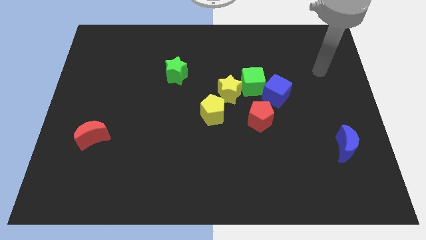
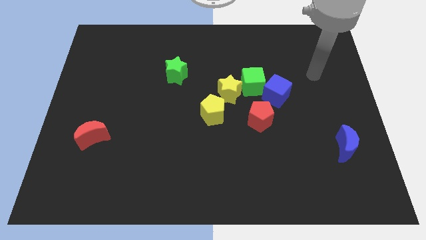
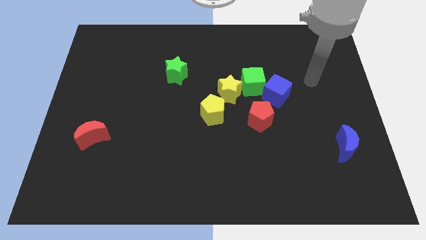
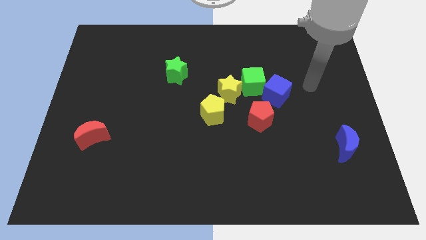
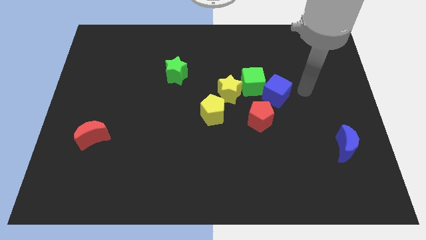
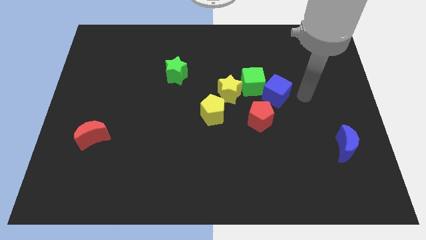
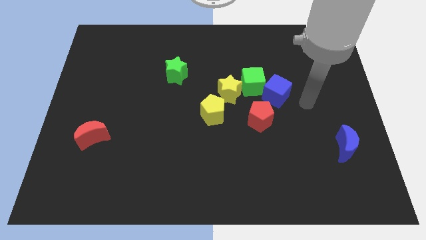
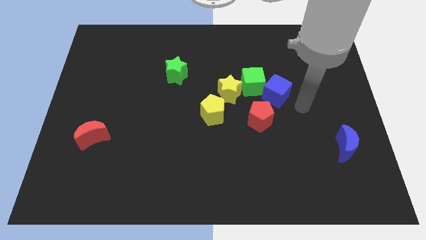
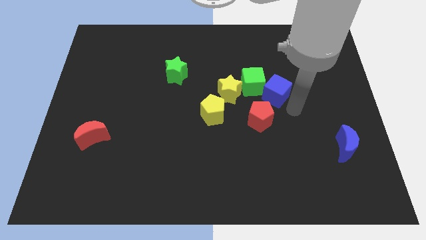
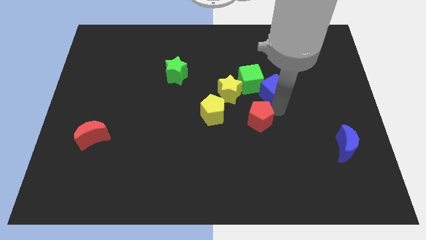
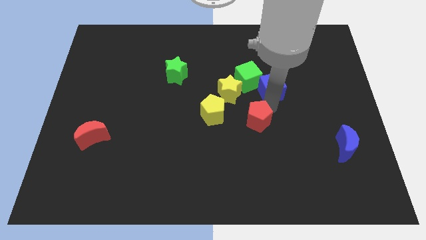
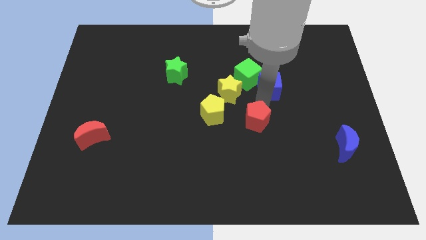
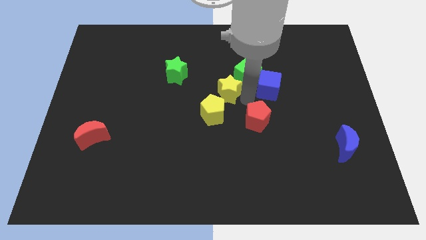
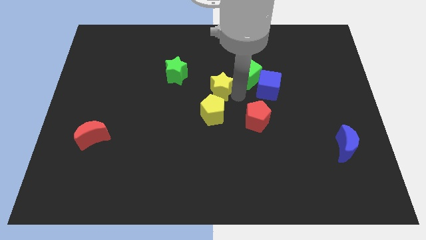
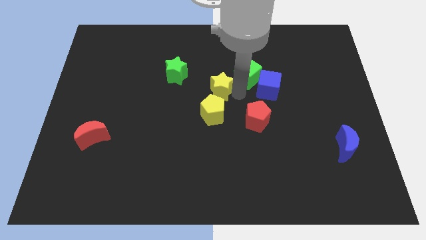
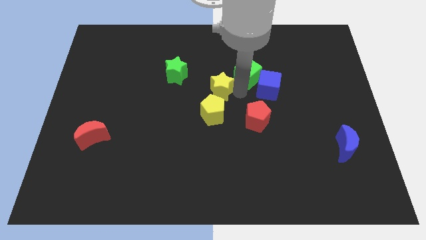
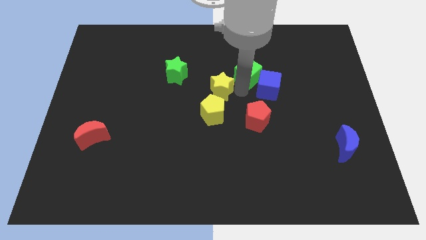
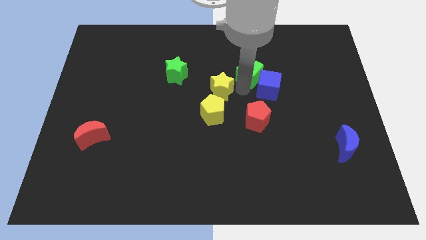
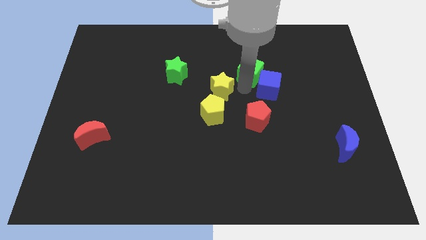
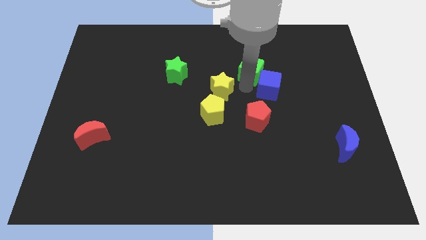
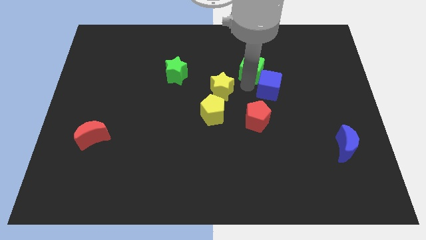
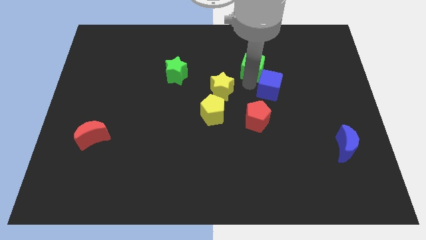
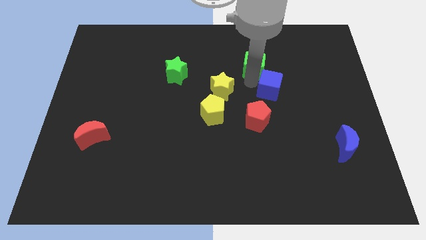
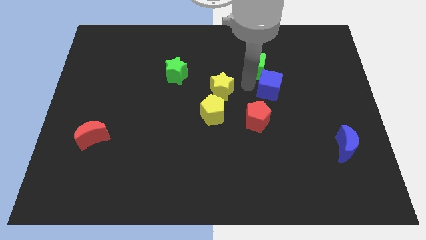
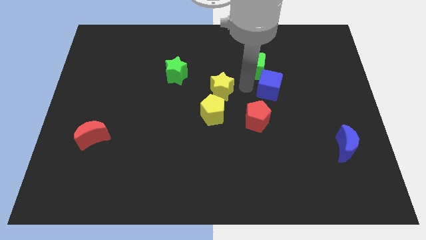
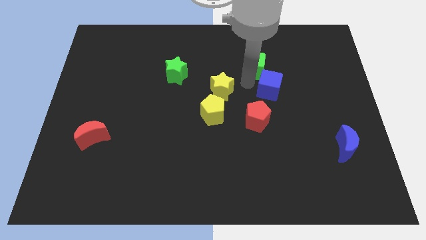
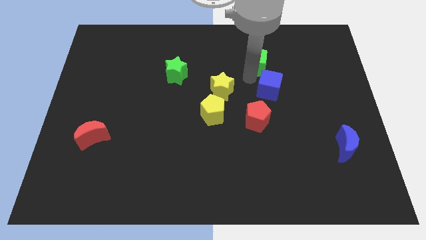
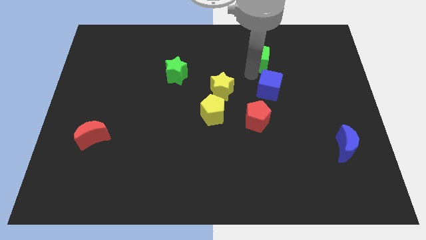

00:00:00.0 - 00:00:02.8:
separate the green cube from the yellow star and blue cube

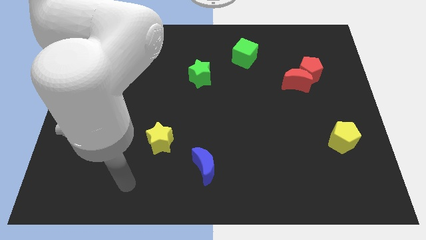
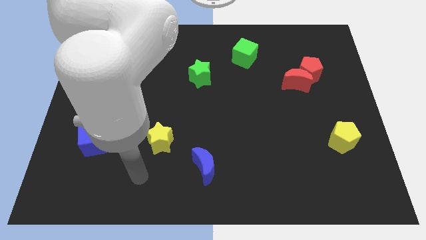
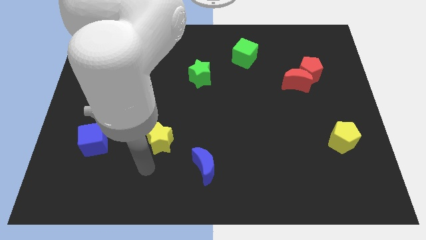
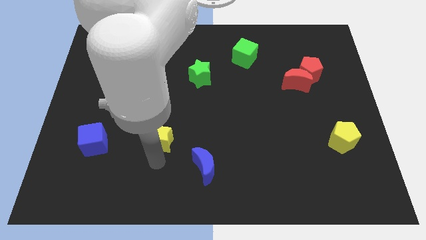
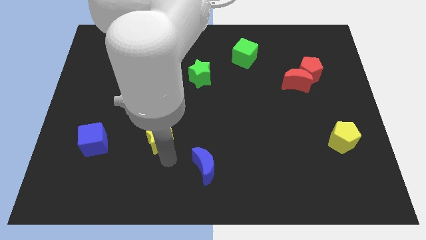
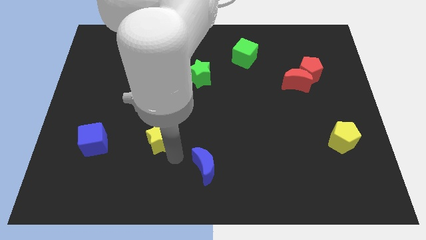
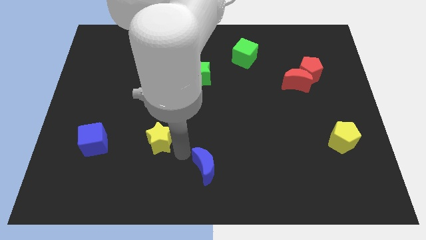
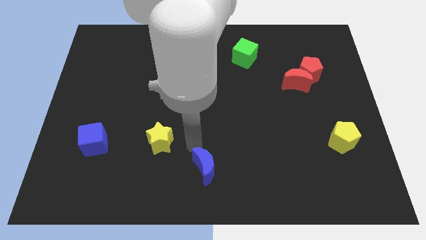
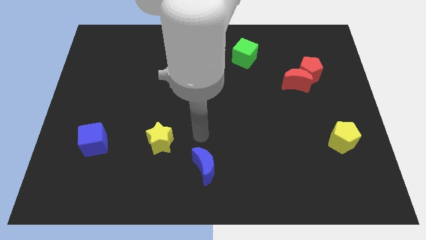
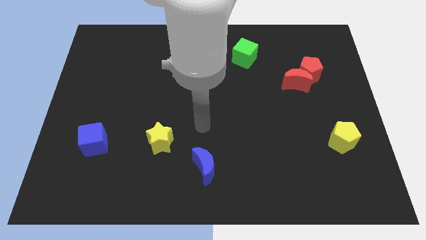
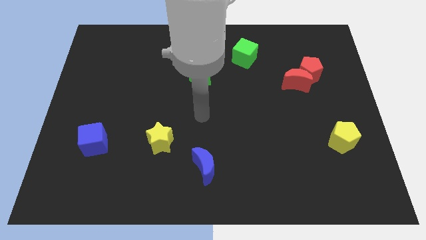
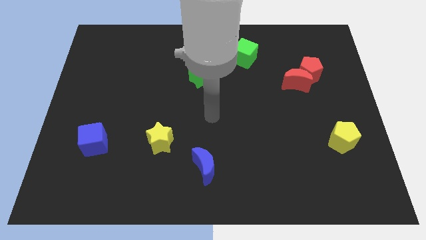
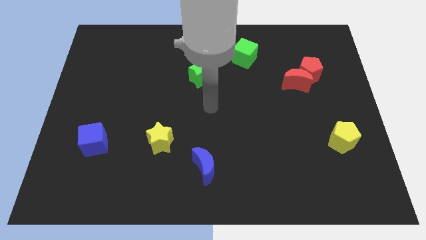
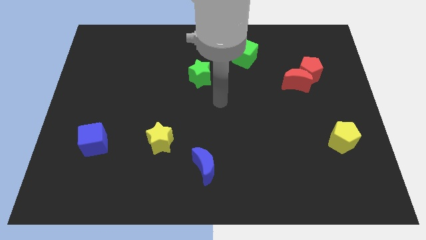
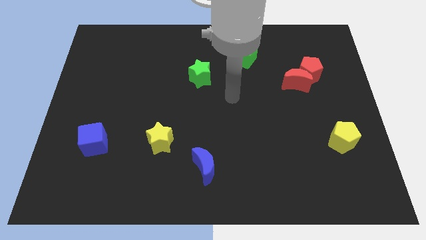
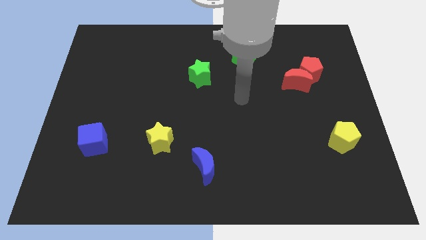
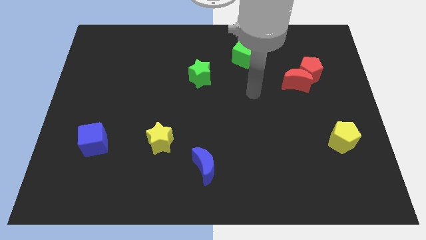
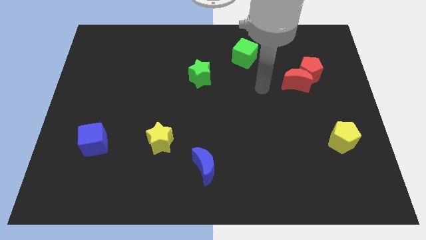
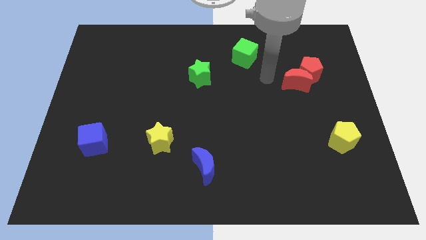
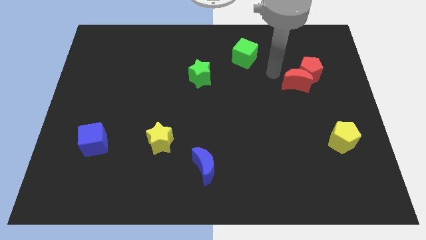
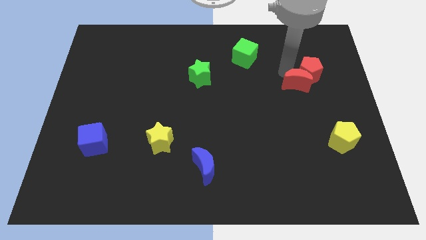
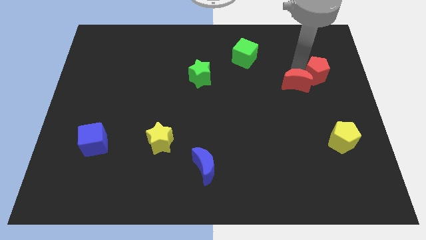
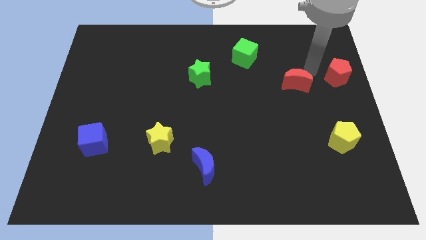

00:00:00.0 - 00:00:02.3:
pull the red moon apart from the red pentagon

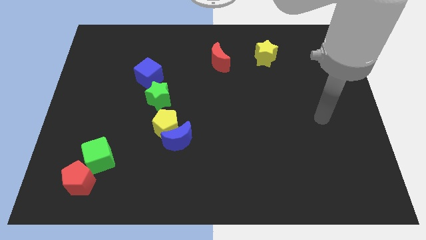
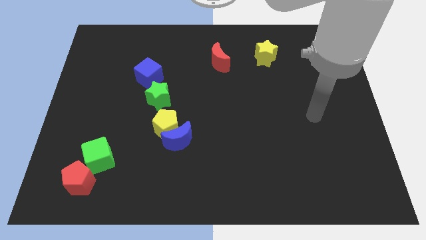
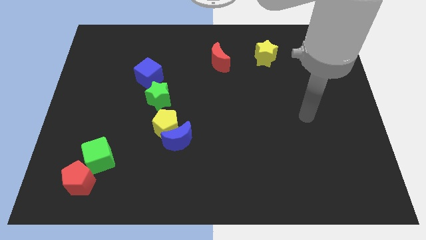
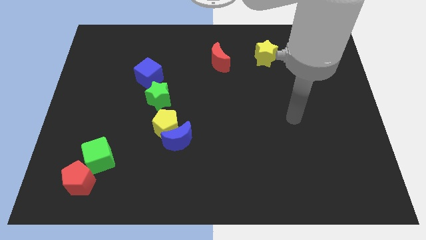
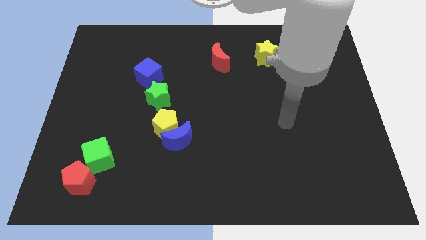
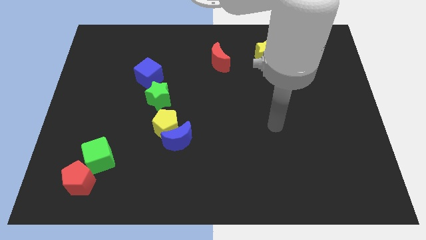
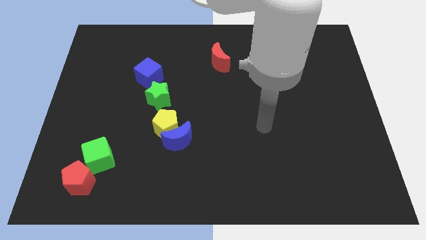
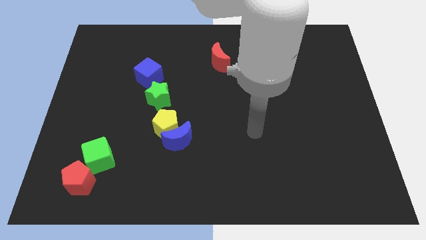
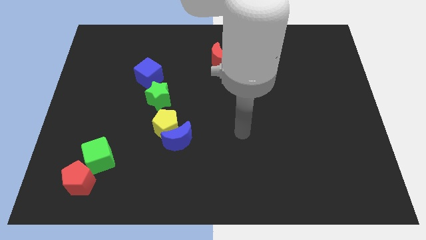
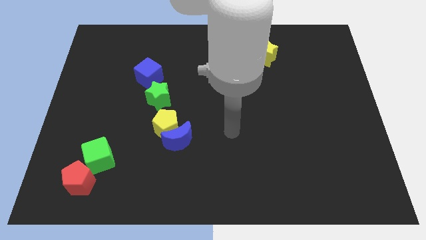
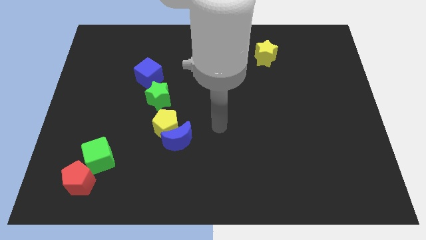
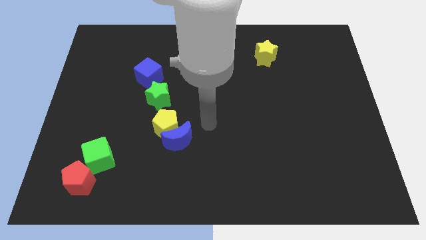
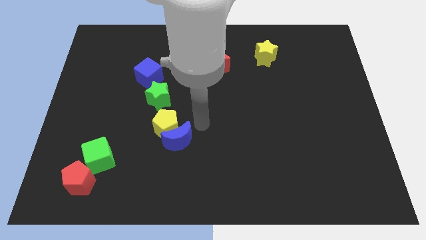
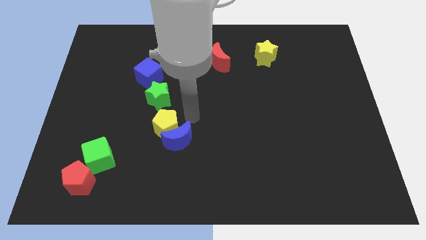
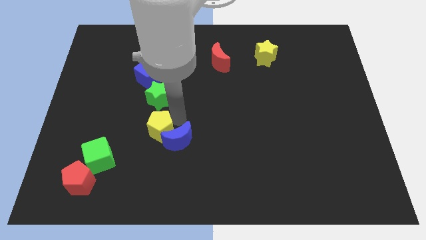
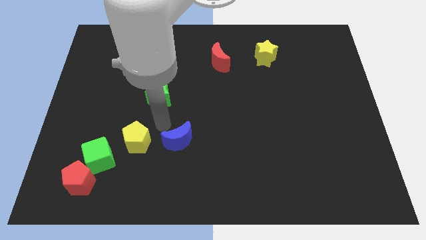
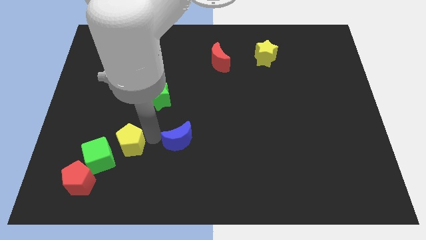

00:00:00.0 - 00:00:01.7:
move the blue moon away from the yellow pentagon

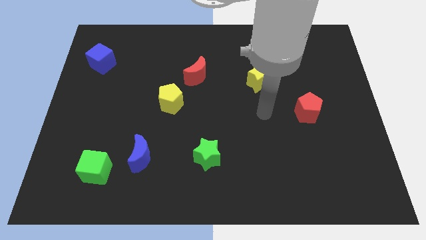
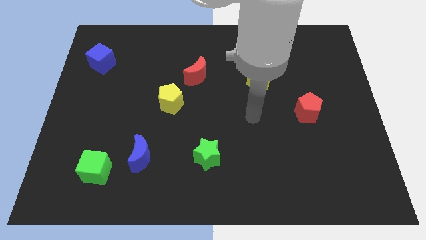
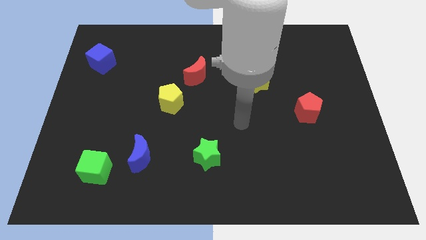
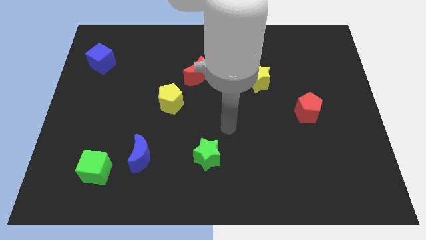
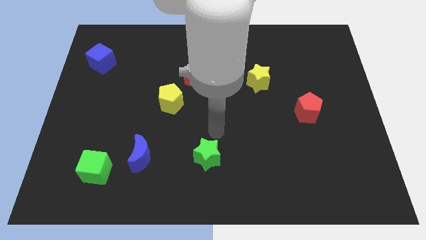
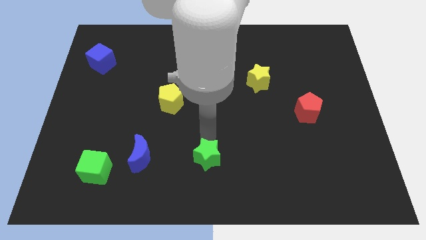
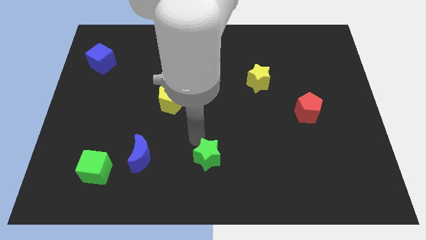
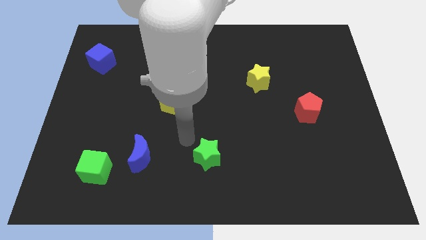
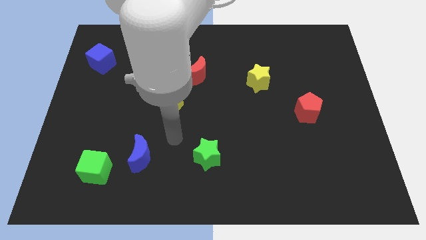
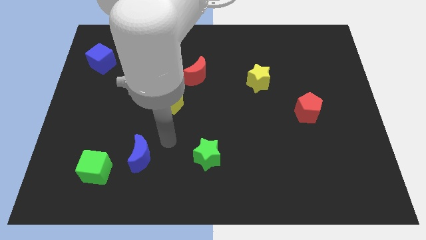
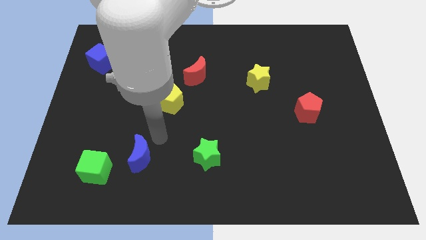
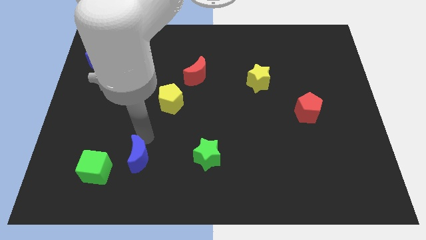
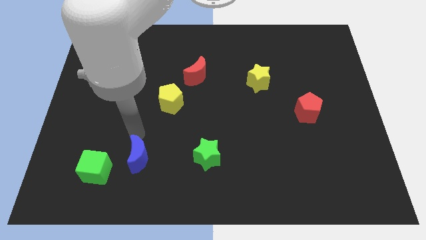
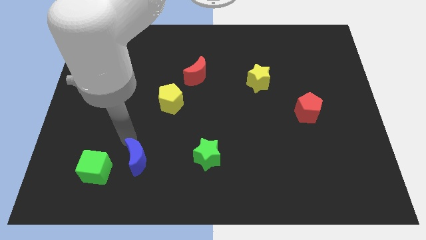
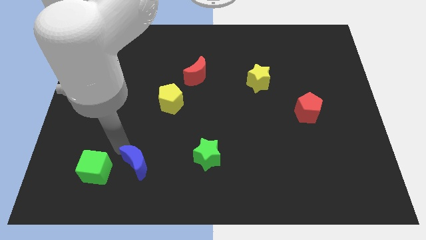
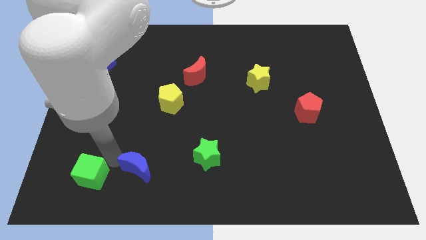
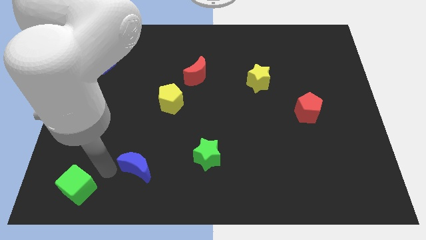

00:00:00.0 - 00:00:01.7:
move the blue moon away from the green cube

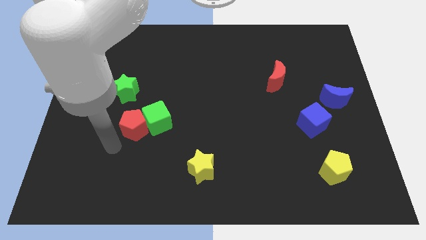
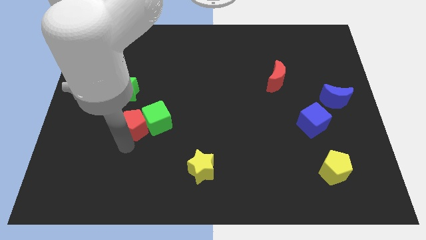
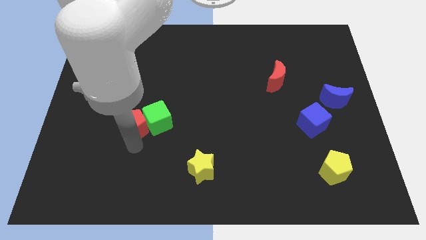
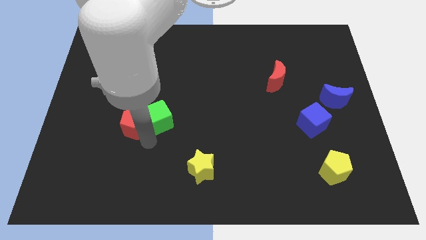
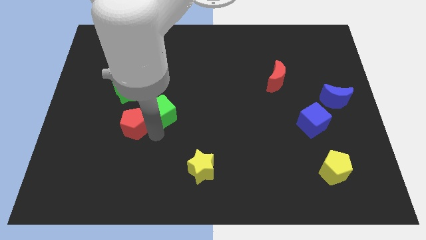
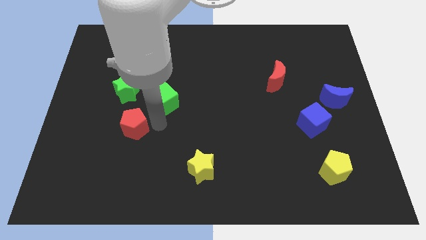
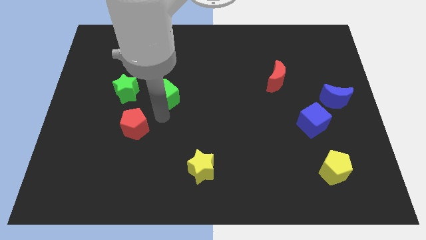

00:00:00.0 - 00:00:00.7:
separate the red pentagon from the green cube

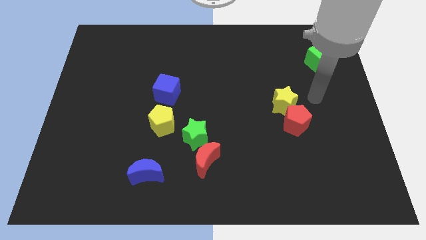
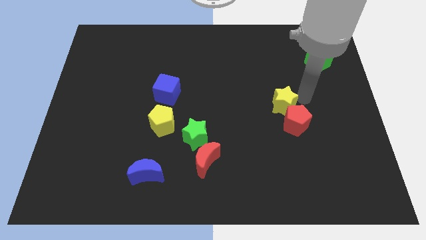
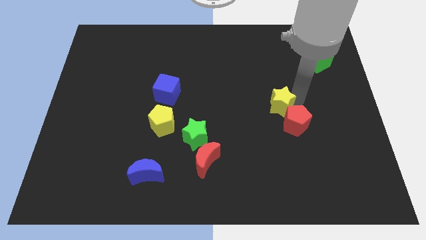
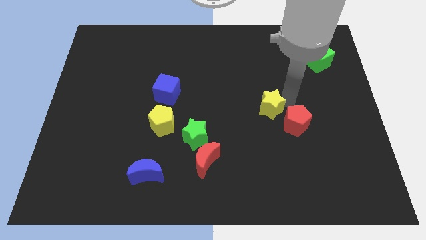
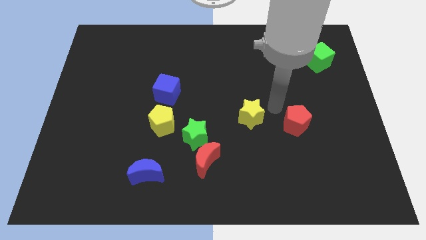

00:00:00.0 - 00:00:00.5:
move the red pentagon away from the yellow star
